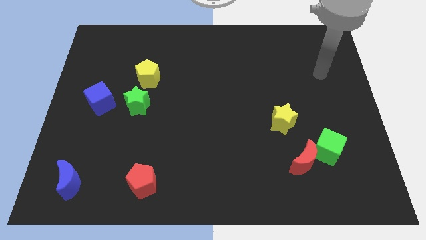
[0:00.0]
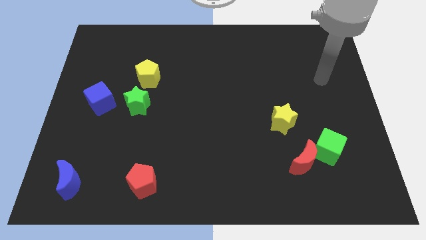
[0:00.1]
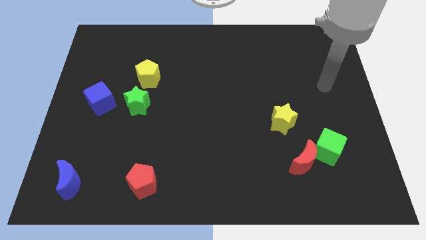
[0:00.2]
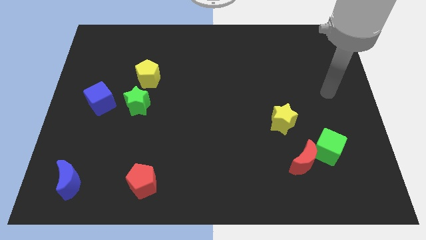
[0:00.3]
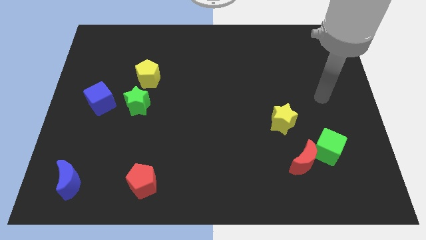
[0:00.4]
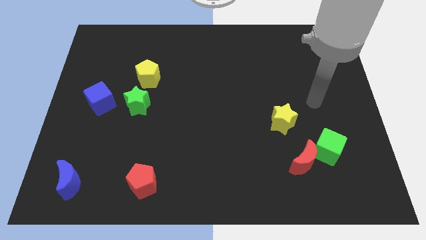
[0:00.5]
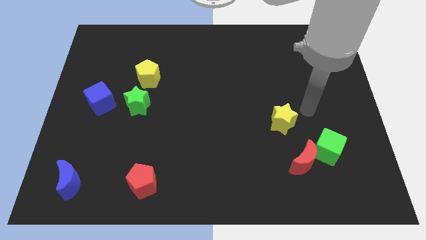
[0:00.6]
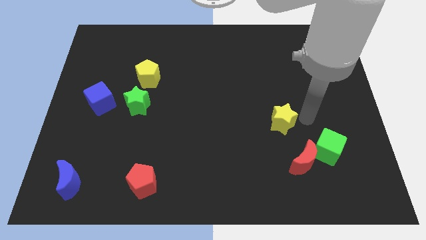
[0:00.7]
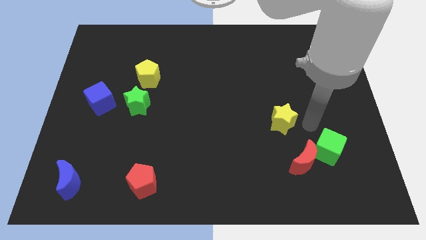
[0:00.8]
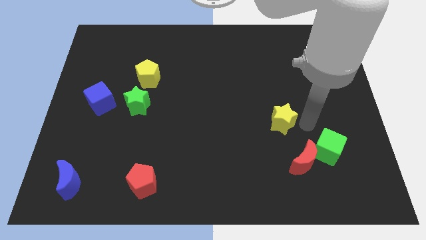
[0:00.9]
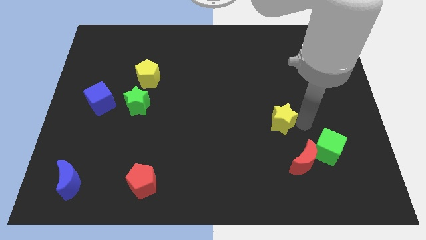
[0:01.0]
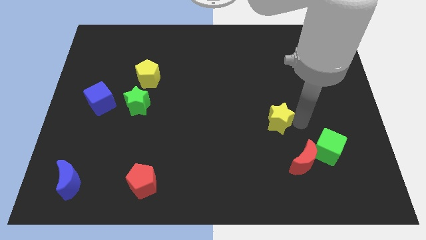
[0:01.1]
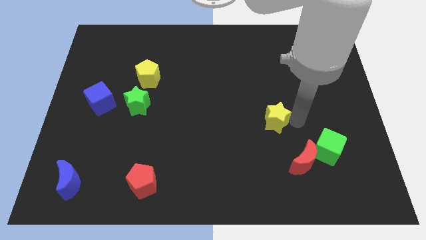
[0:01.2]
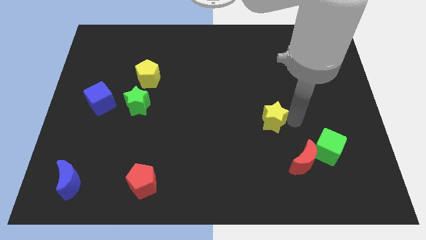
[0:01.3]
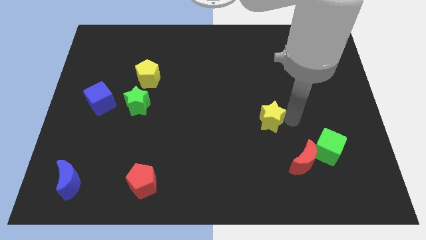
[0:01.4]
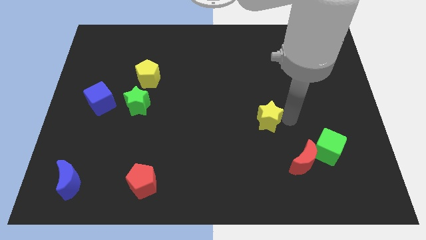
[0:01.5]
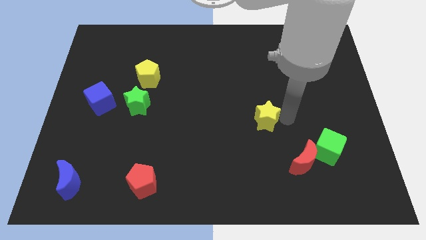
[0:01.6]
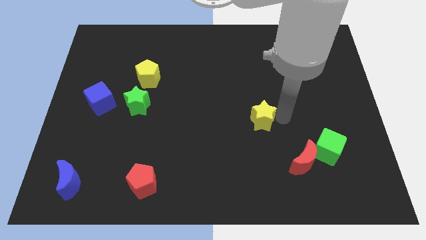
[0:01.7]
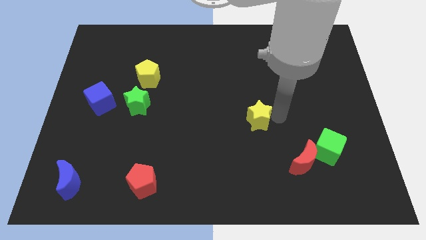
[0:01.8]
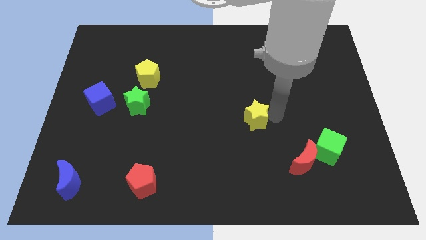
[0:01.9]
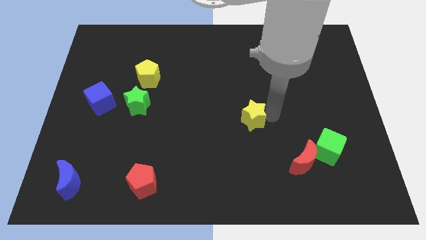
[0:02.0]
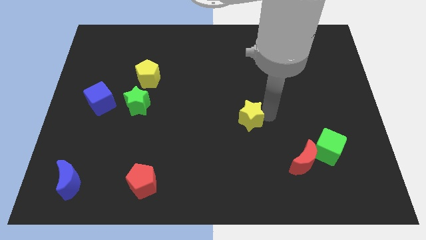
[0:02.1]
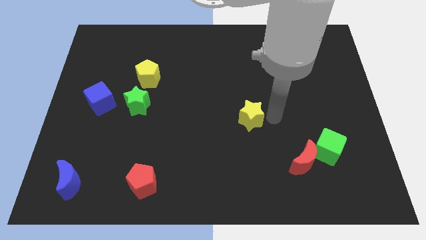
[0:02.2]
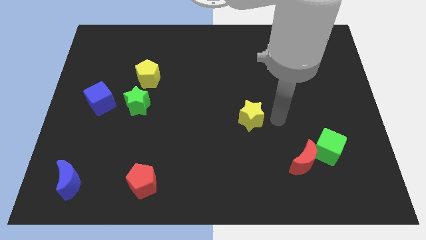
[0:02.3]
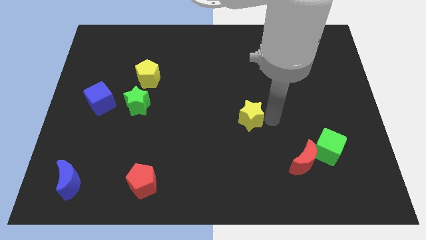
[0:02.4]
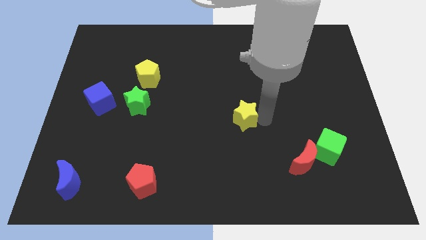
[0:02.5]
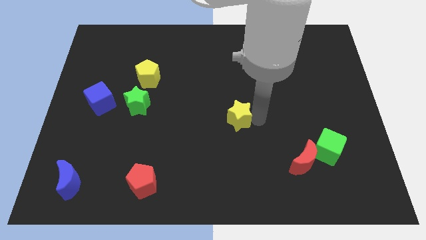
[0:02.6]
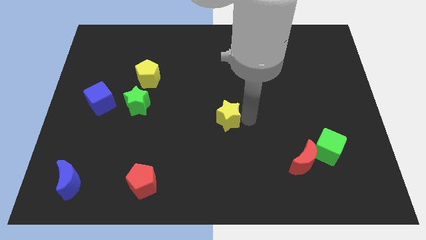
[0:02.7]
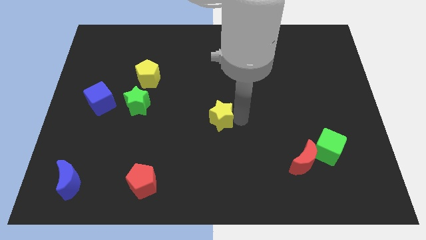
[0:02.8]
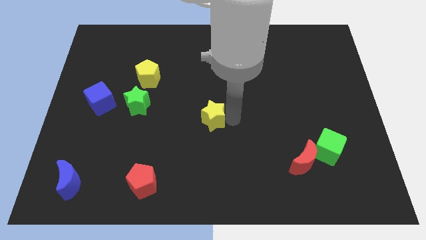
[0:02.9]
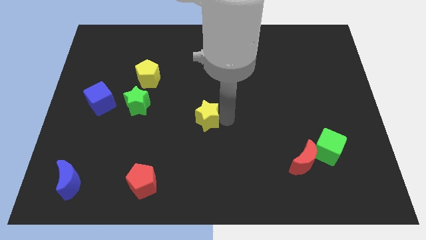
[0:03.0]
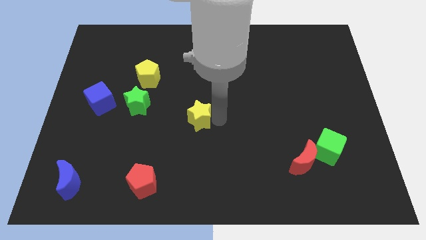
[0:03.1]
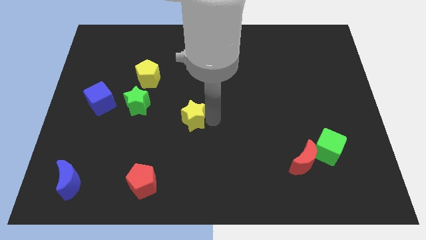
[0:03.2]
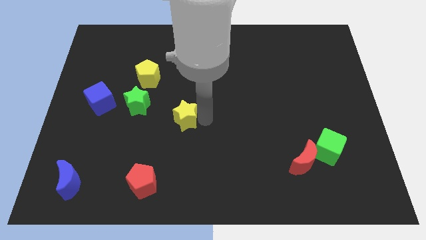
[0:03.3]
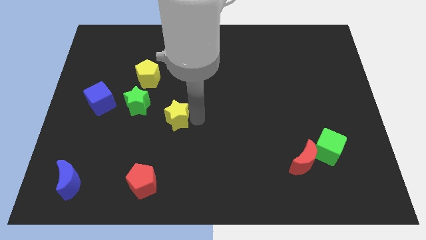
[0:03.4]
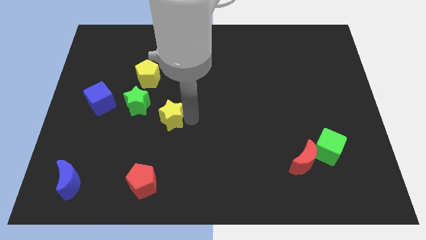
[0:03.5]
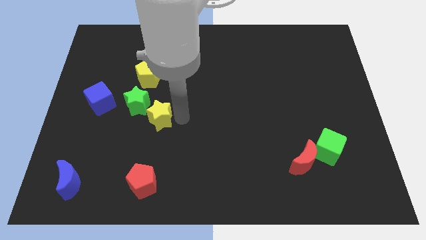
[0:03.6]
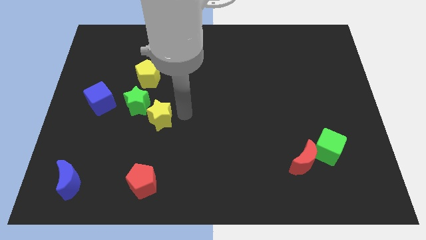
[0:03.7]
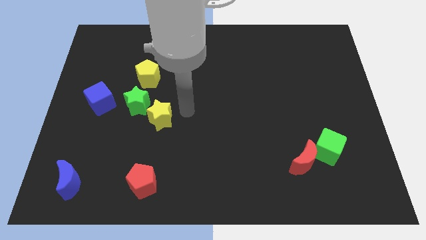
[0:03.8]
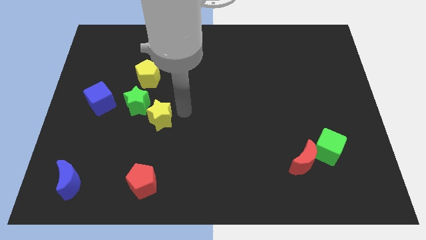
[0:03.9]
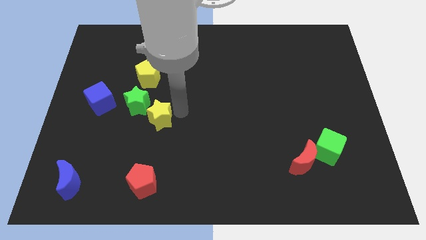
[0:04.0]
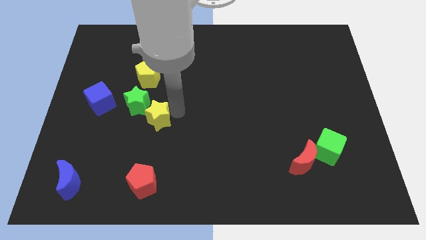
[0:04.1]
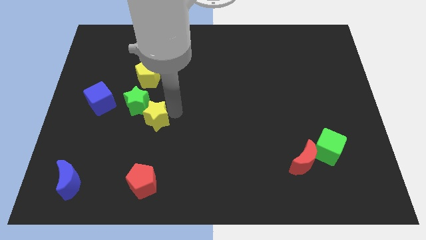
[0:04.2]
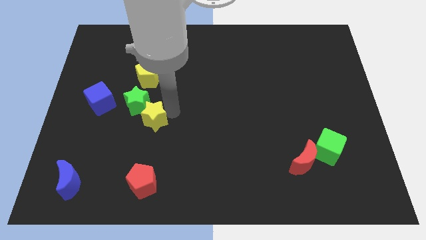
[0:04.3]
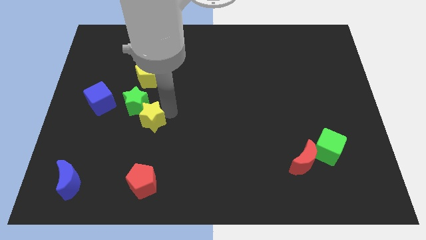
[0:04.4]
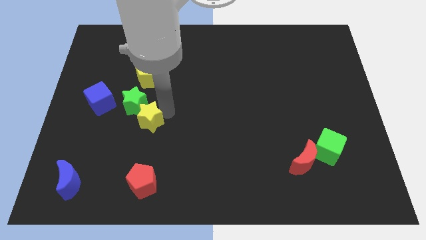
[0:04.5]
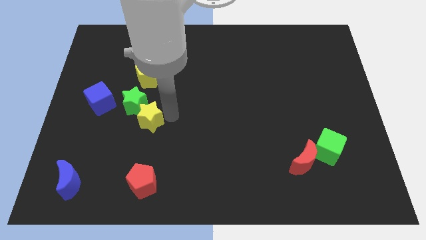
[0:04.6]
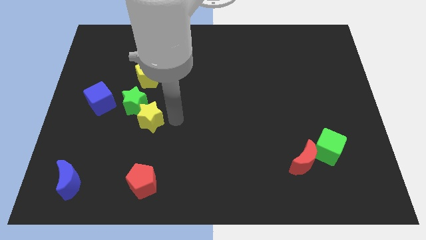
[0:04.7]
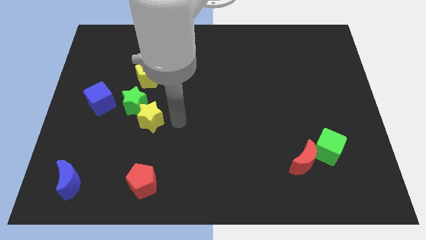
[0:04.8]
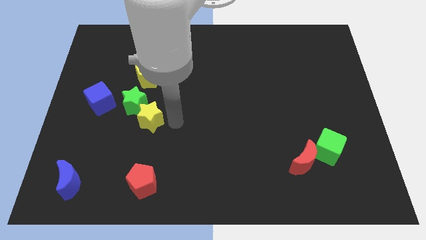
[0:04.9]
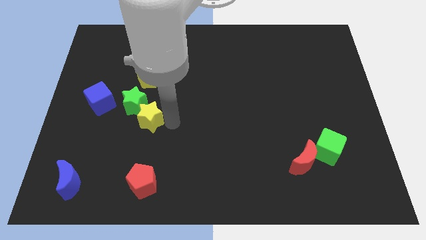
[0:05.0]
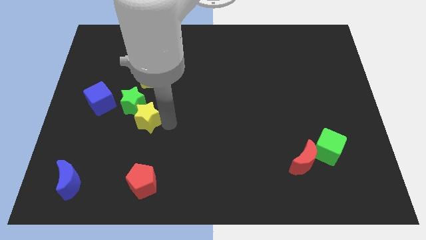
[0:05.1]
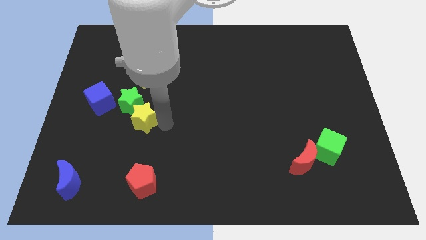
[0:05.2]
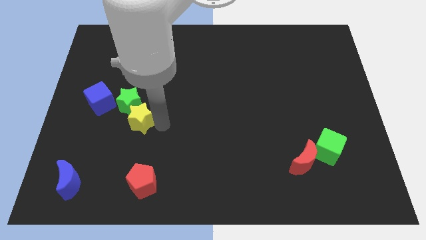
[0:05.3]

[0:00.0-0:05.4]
push the yellow star to the bottom right of the blue cube

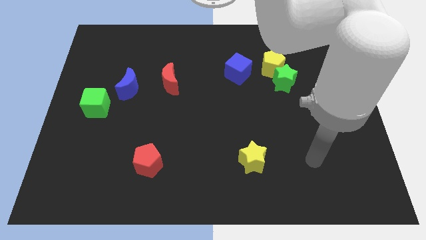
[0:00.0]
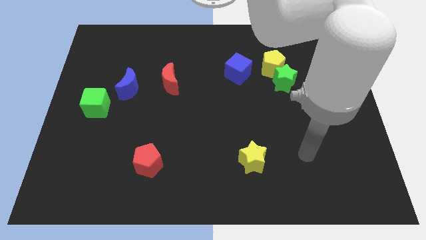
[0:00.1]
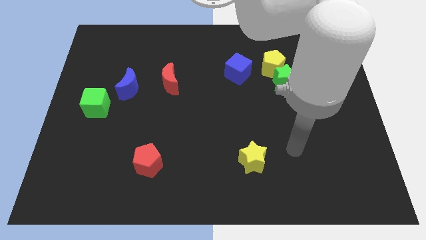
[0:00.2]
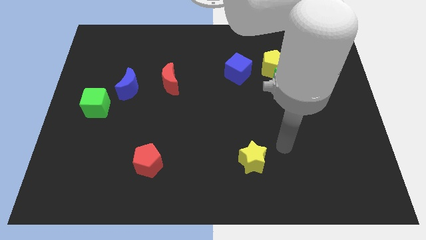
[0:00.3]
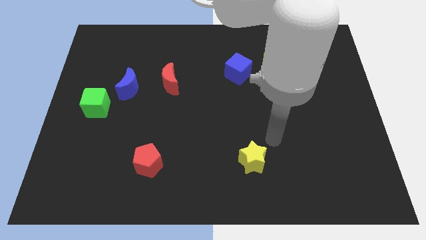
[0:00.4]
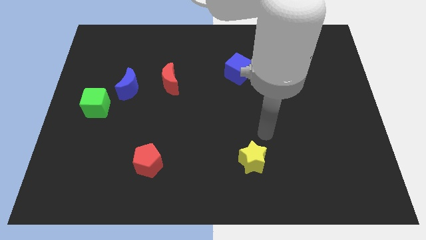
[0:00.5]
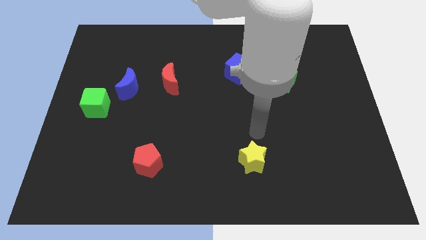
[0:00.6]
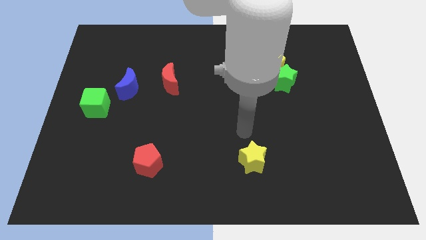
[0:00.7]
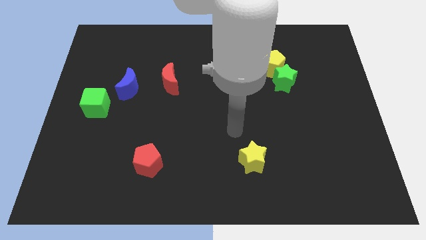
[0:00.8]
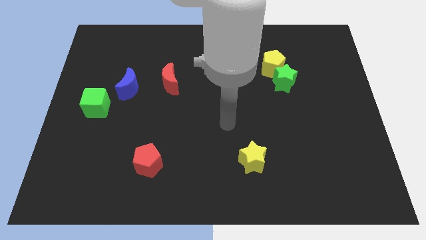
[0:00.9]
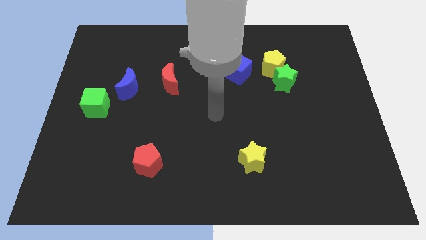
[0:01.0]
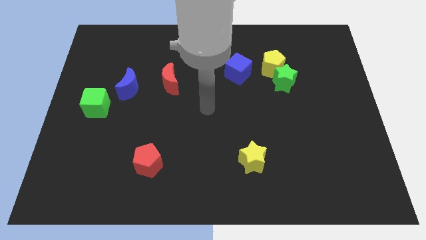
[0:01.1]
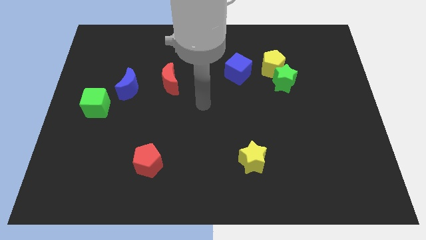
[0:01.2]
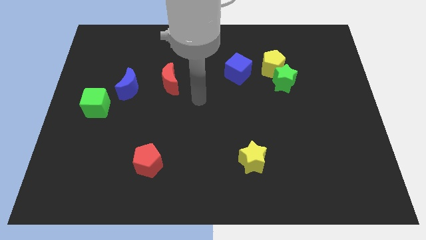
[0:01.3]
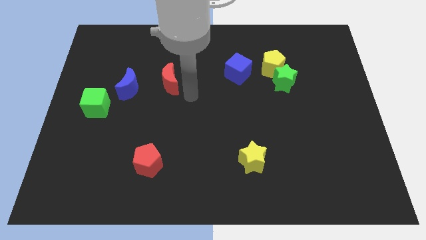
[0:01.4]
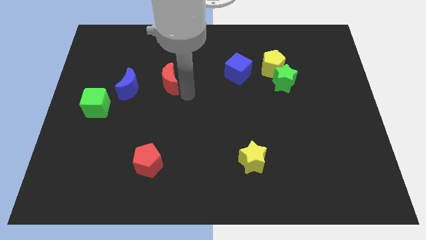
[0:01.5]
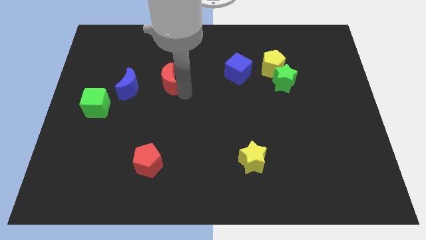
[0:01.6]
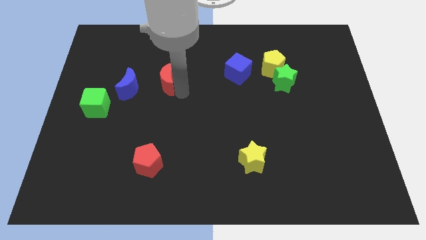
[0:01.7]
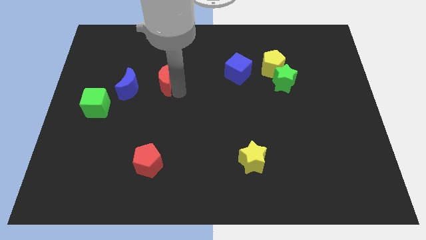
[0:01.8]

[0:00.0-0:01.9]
push the red moon diagonally up and to the right of the blue moon
